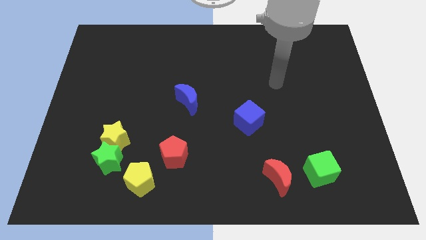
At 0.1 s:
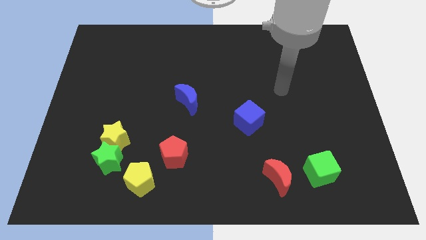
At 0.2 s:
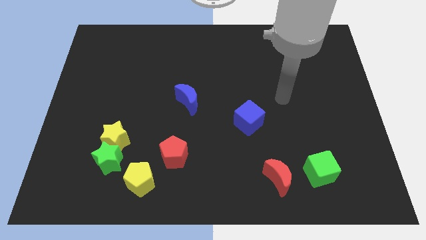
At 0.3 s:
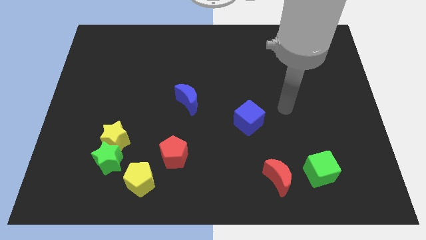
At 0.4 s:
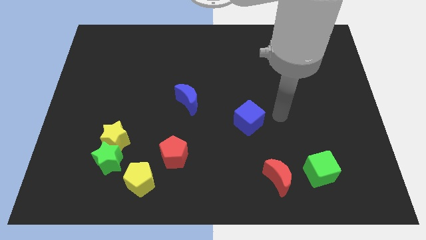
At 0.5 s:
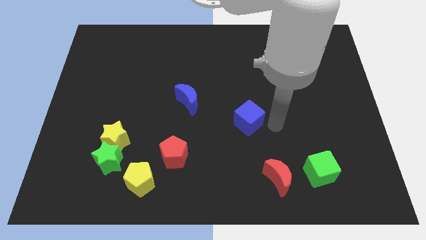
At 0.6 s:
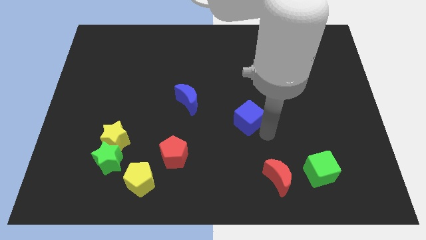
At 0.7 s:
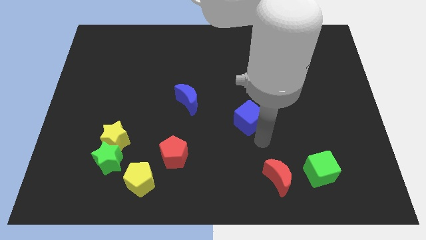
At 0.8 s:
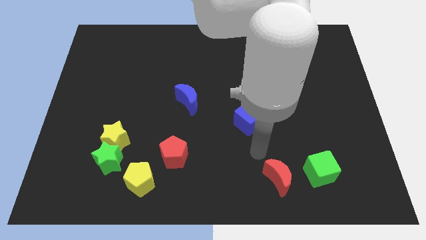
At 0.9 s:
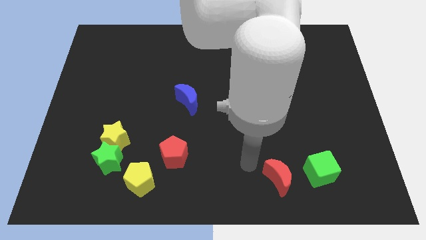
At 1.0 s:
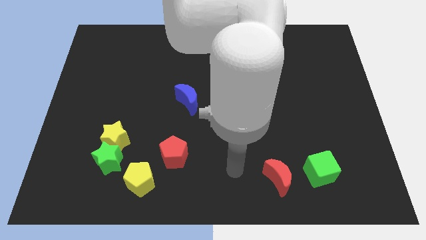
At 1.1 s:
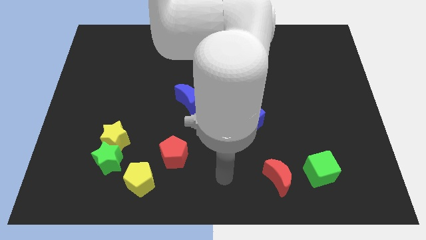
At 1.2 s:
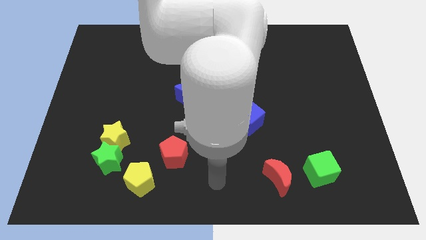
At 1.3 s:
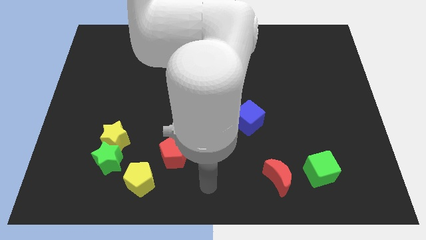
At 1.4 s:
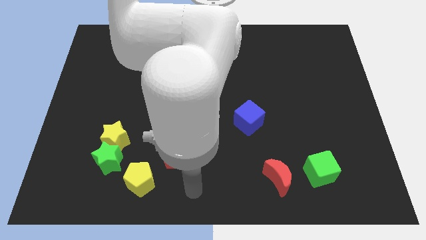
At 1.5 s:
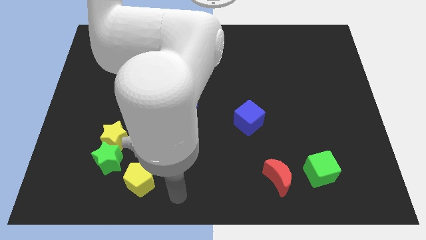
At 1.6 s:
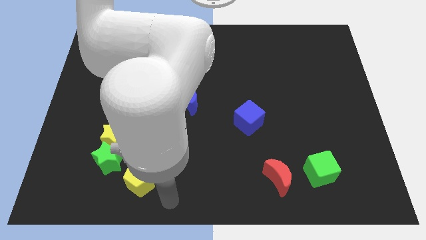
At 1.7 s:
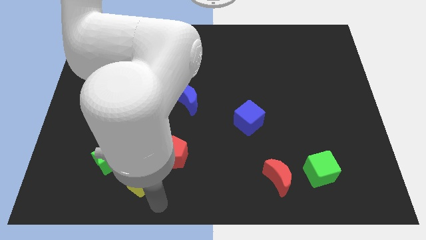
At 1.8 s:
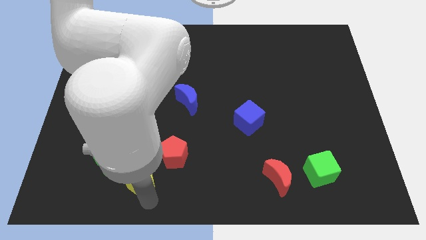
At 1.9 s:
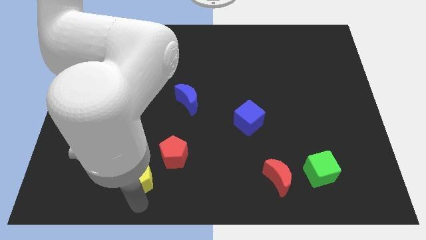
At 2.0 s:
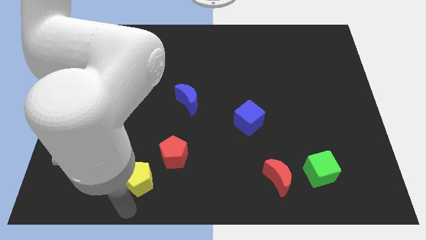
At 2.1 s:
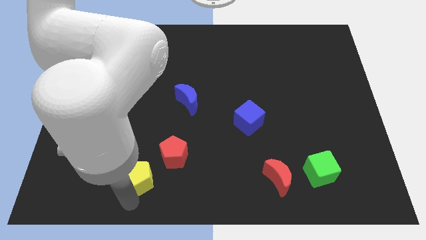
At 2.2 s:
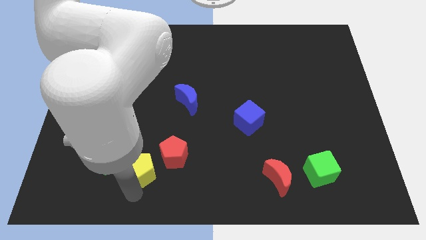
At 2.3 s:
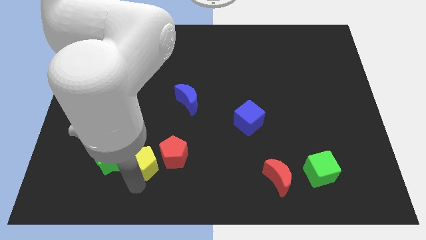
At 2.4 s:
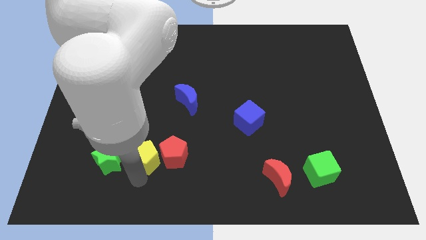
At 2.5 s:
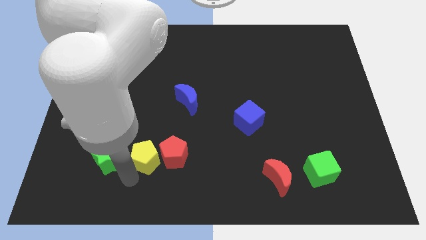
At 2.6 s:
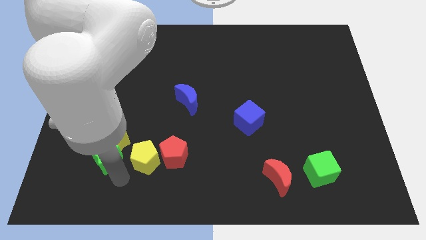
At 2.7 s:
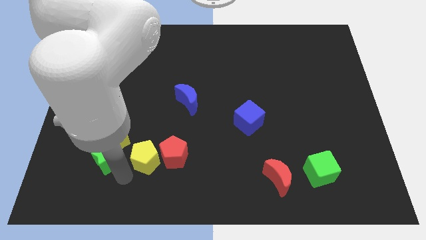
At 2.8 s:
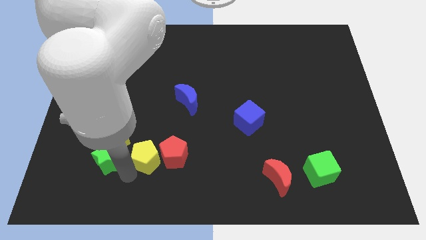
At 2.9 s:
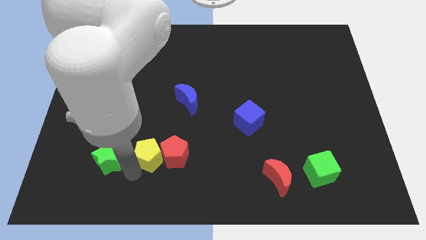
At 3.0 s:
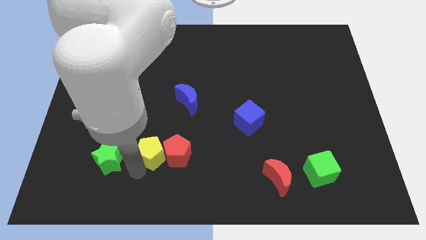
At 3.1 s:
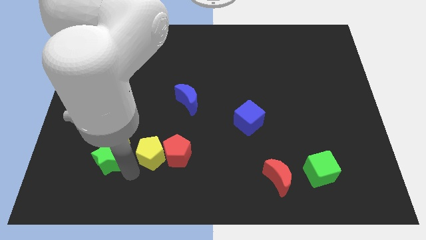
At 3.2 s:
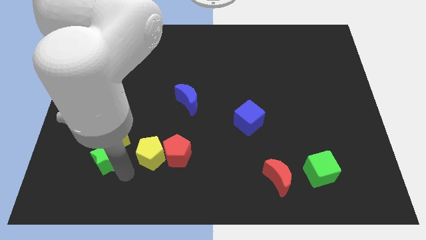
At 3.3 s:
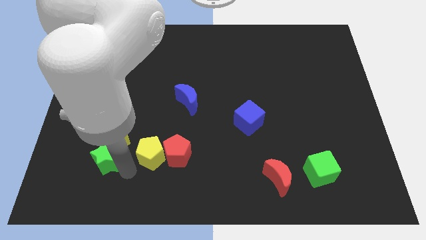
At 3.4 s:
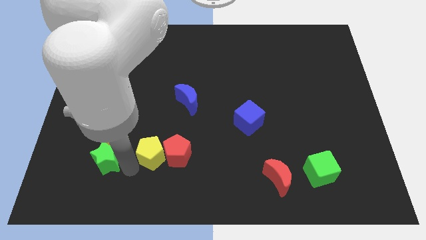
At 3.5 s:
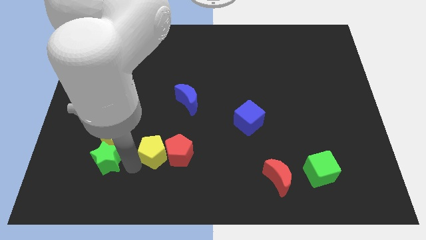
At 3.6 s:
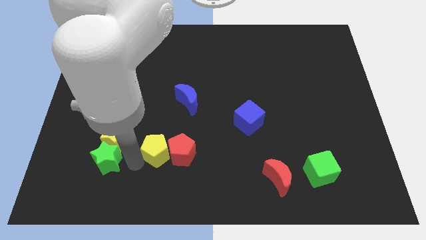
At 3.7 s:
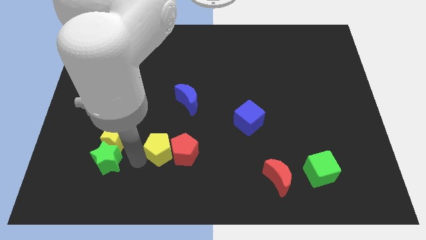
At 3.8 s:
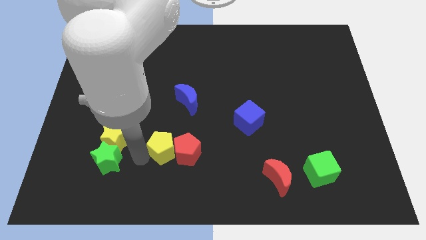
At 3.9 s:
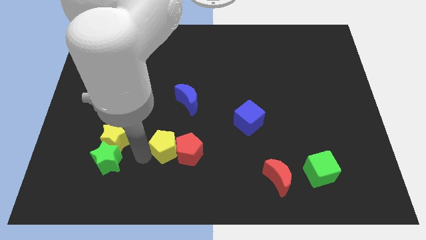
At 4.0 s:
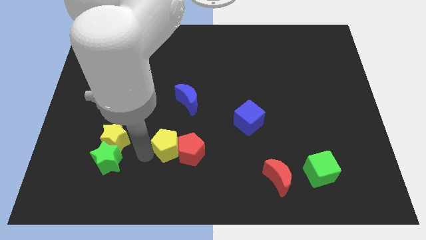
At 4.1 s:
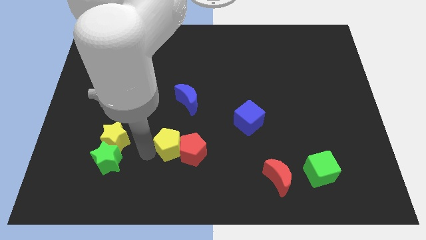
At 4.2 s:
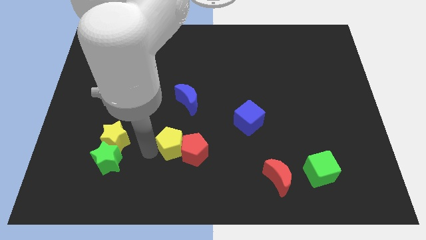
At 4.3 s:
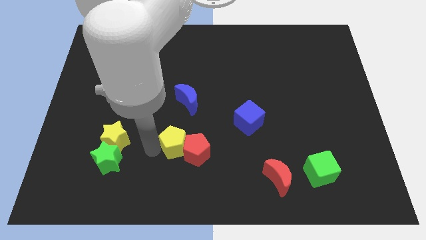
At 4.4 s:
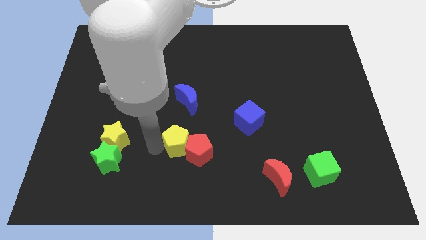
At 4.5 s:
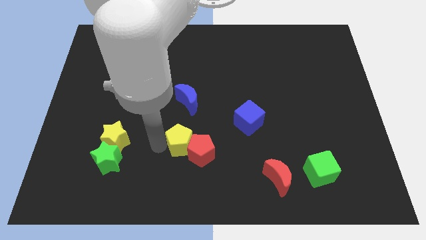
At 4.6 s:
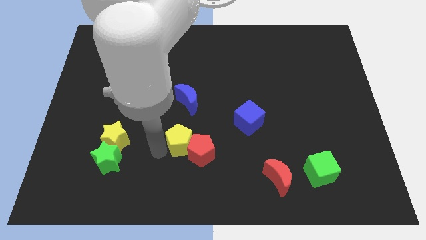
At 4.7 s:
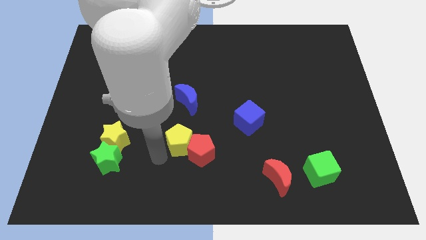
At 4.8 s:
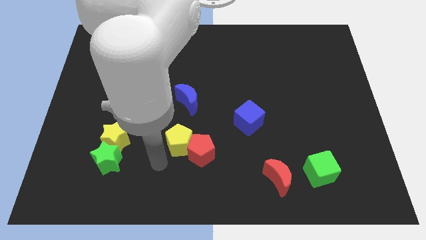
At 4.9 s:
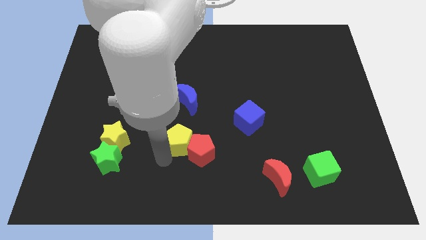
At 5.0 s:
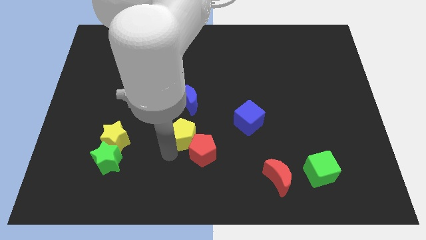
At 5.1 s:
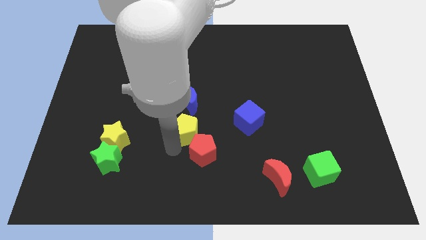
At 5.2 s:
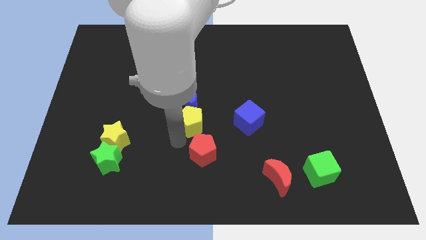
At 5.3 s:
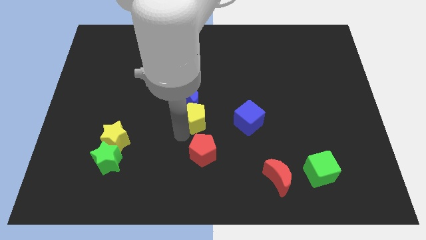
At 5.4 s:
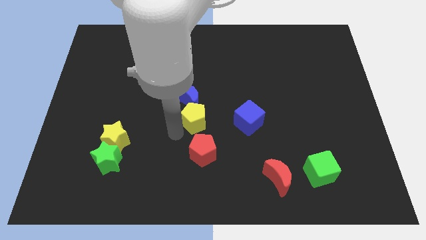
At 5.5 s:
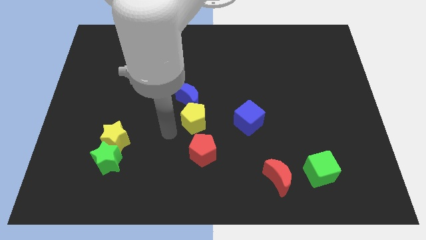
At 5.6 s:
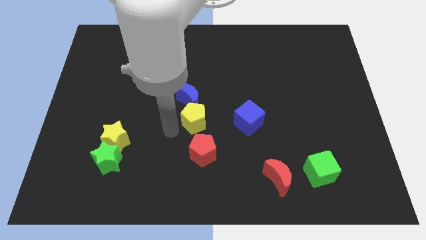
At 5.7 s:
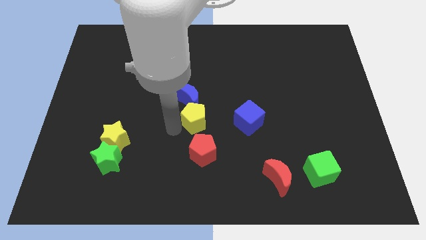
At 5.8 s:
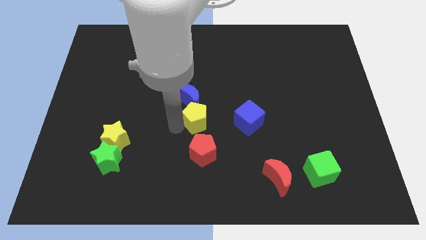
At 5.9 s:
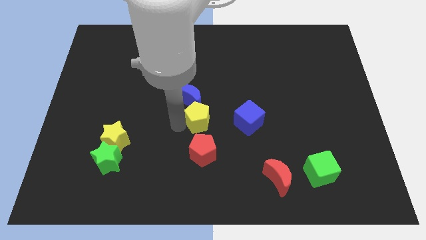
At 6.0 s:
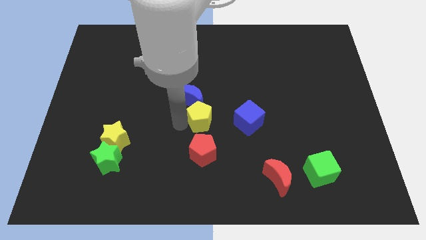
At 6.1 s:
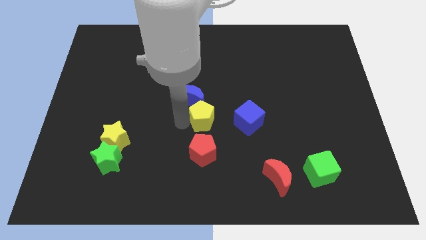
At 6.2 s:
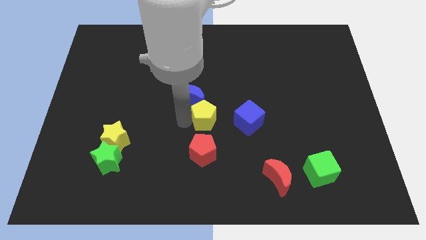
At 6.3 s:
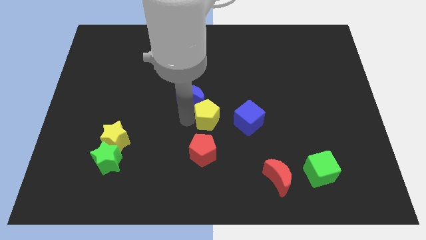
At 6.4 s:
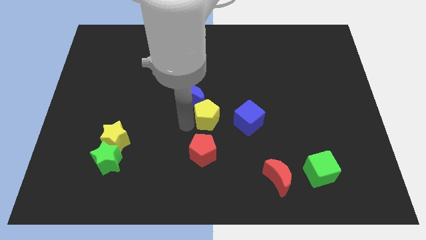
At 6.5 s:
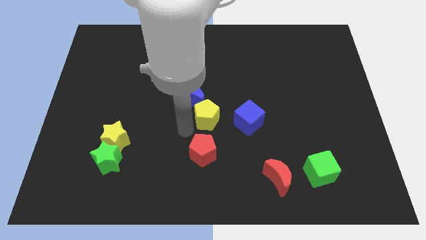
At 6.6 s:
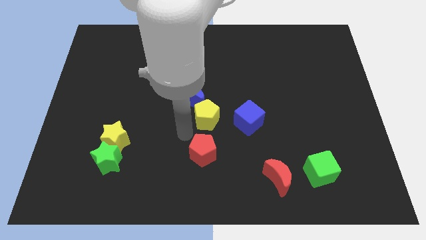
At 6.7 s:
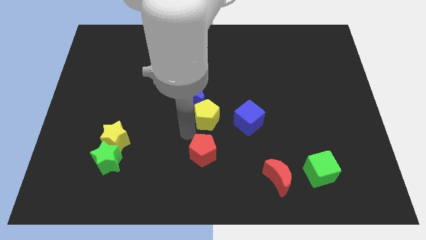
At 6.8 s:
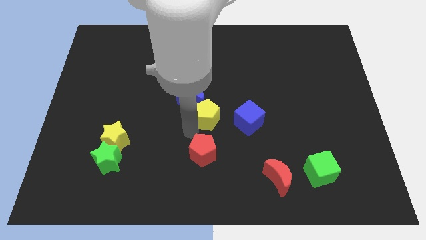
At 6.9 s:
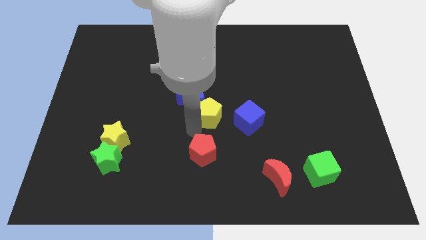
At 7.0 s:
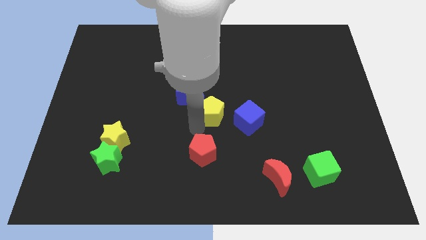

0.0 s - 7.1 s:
slide the yellow pentagon diagonally up and to the left of the blue cube

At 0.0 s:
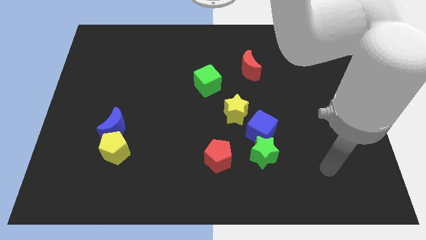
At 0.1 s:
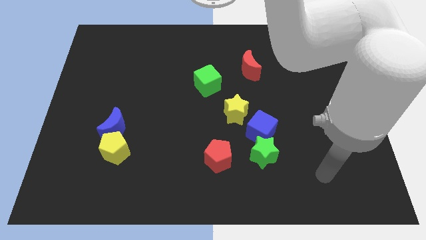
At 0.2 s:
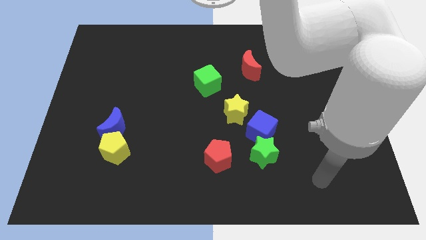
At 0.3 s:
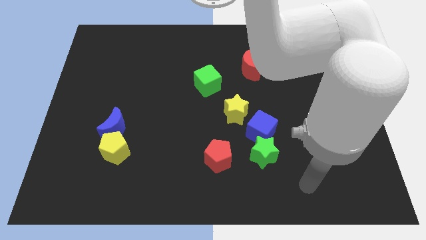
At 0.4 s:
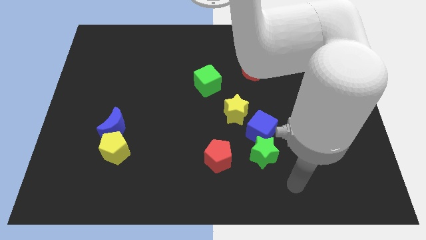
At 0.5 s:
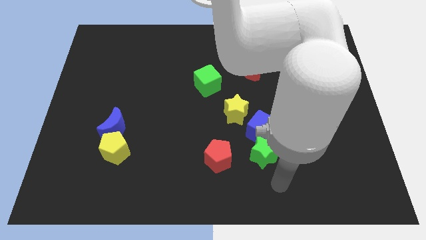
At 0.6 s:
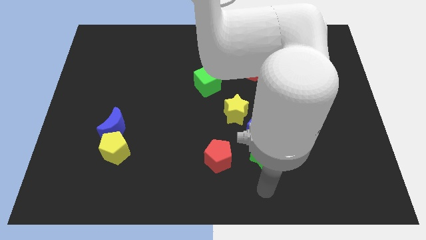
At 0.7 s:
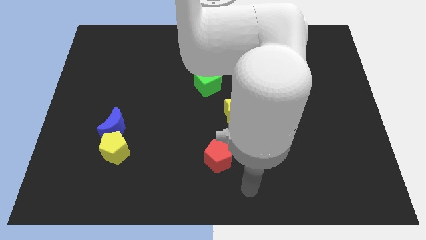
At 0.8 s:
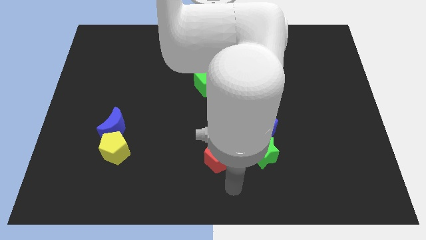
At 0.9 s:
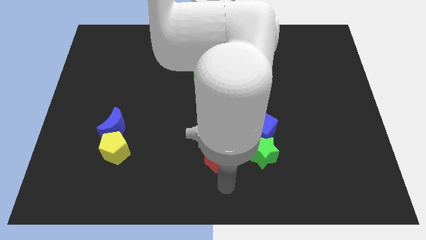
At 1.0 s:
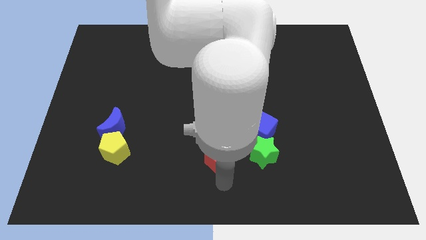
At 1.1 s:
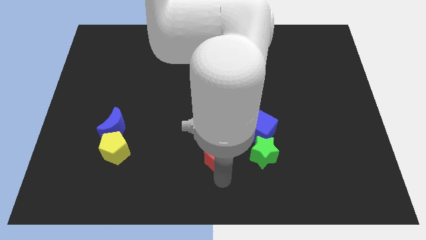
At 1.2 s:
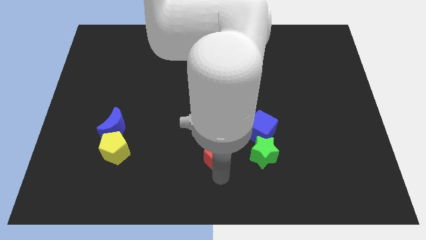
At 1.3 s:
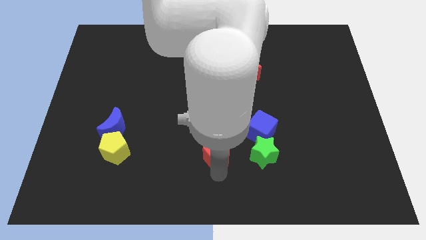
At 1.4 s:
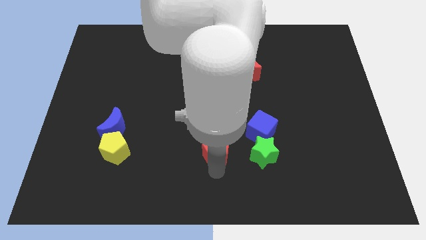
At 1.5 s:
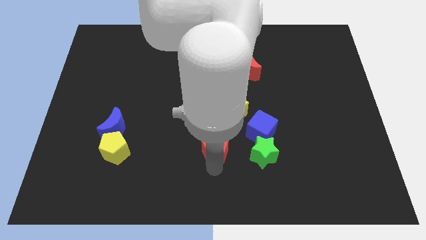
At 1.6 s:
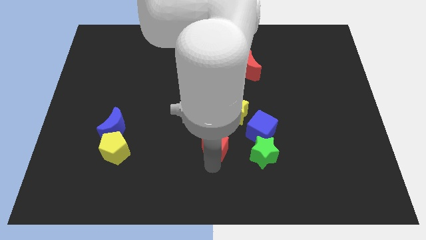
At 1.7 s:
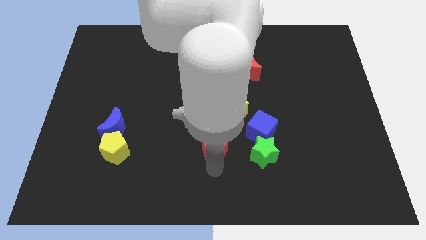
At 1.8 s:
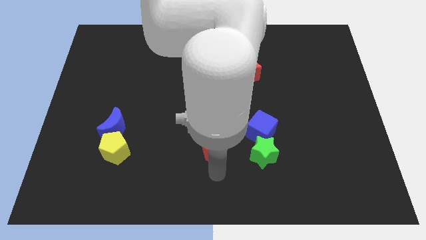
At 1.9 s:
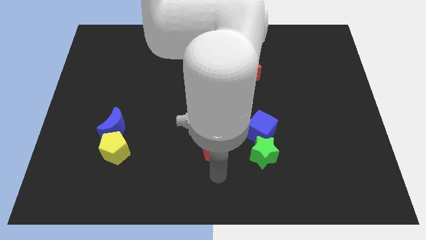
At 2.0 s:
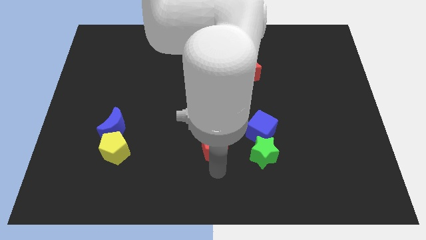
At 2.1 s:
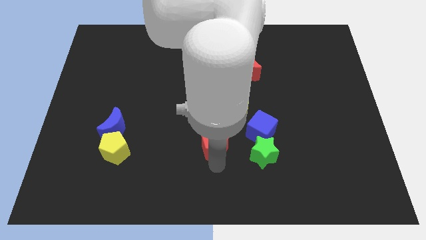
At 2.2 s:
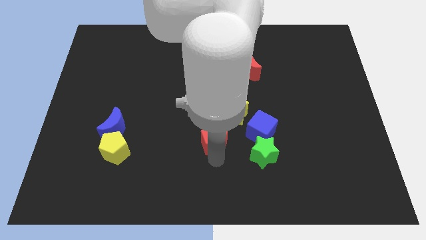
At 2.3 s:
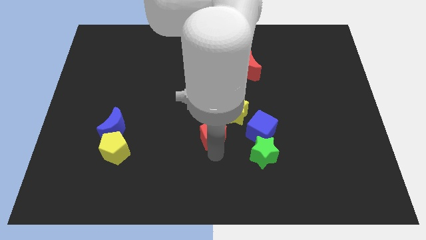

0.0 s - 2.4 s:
move the red pentagon to the bottom of the green cube
